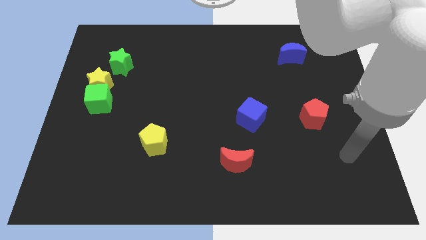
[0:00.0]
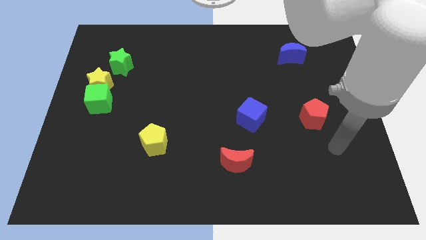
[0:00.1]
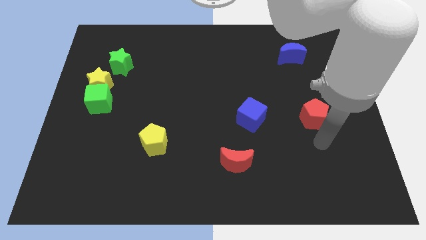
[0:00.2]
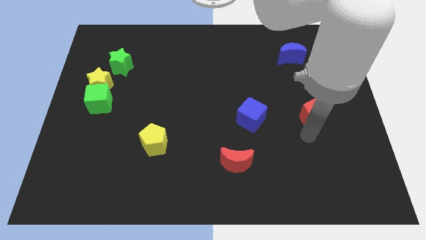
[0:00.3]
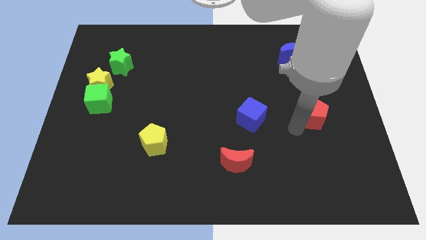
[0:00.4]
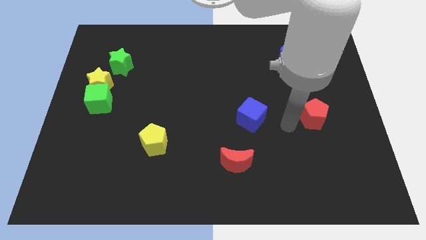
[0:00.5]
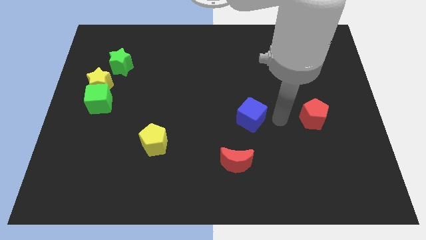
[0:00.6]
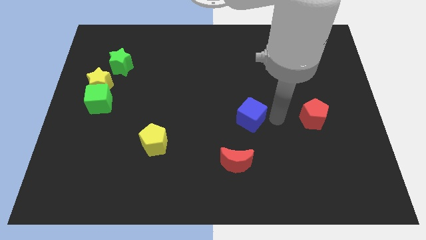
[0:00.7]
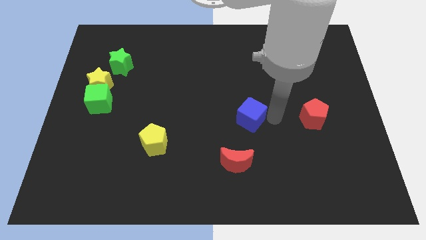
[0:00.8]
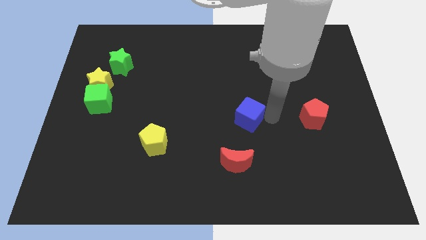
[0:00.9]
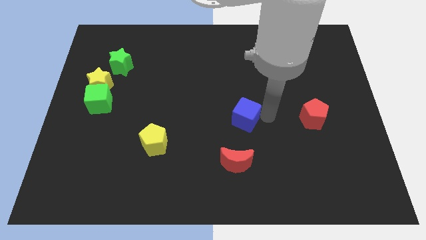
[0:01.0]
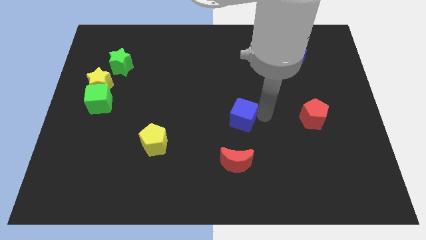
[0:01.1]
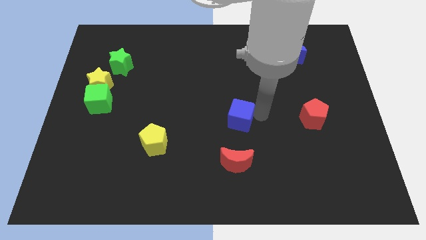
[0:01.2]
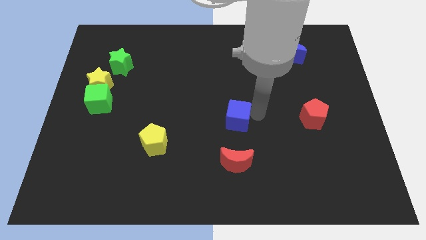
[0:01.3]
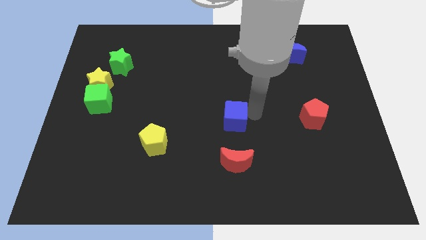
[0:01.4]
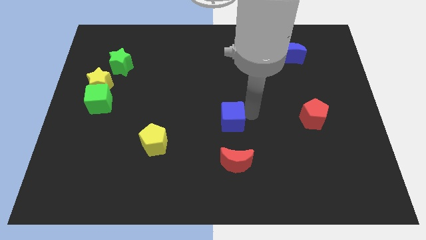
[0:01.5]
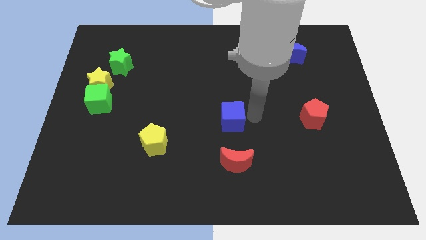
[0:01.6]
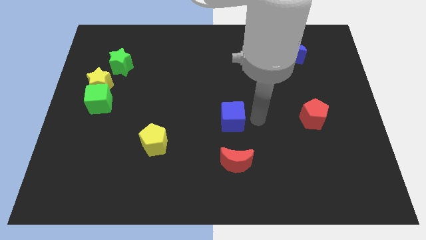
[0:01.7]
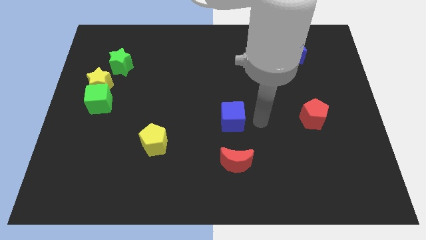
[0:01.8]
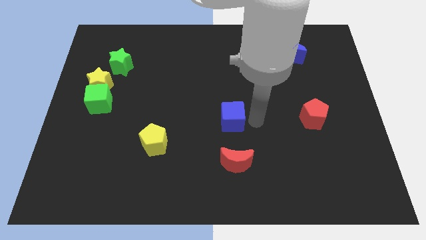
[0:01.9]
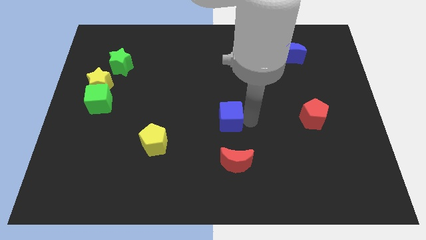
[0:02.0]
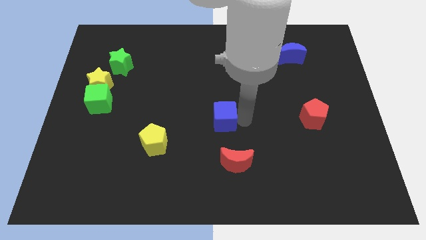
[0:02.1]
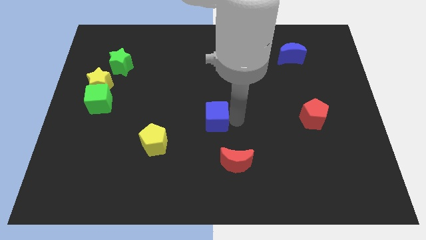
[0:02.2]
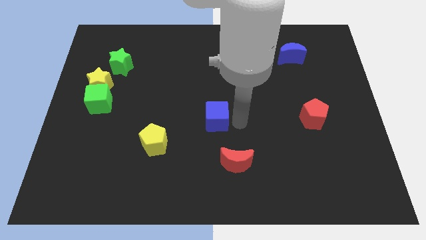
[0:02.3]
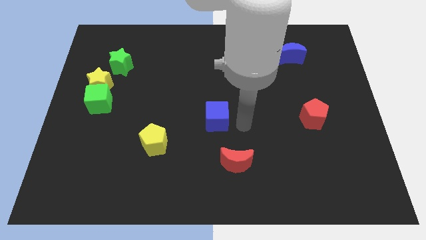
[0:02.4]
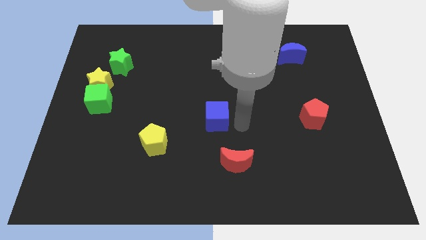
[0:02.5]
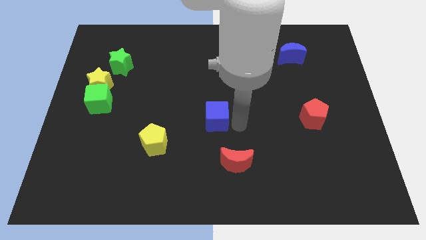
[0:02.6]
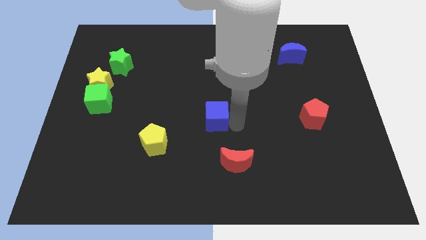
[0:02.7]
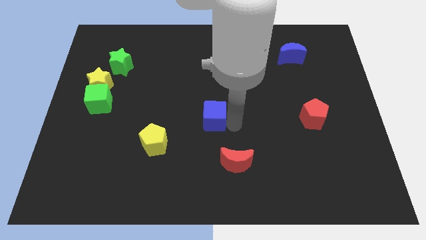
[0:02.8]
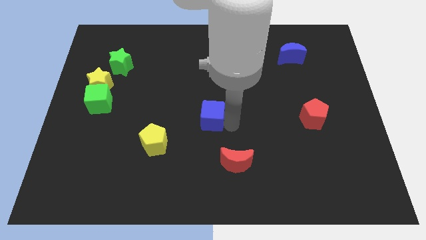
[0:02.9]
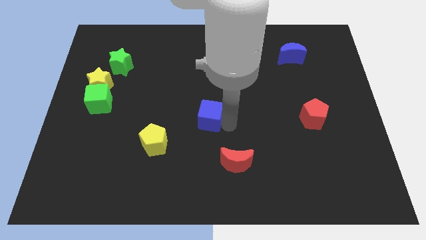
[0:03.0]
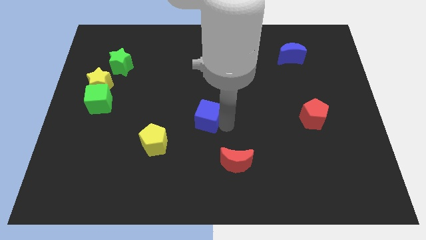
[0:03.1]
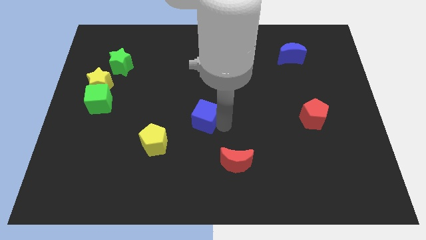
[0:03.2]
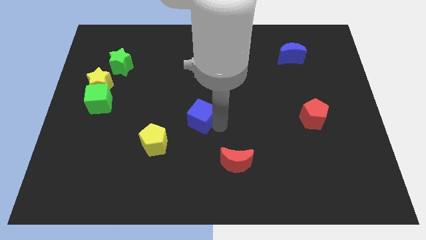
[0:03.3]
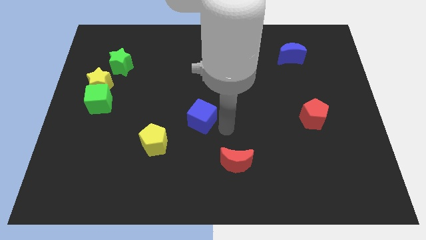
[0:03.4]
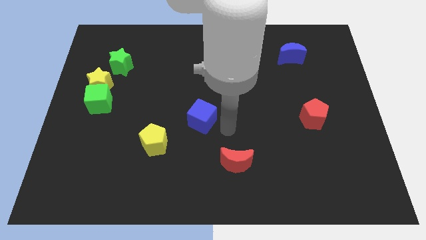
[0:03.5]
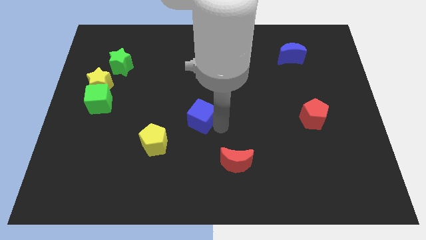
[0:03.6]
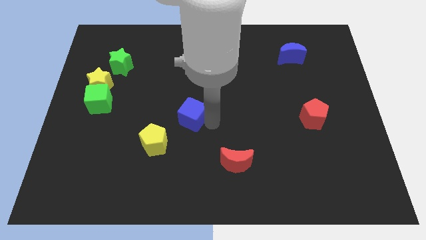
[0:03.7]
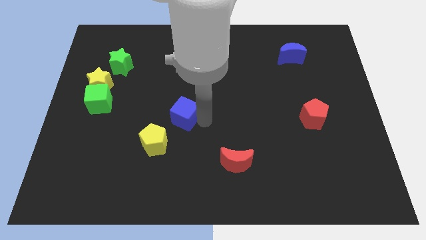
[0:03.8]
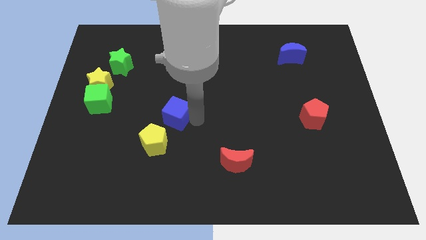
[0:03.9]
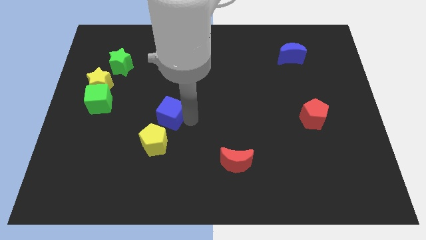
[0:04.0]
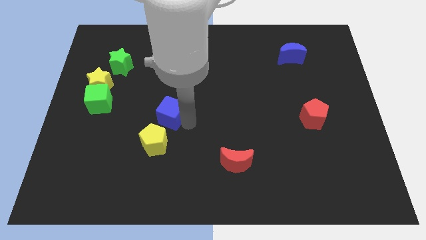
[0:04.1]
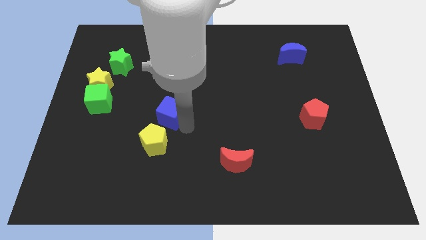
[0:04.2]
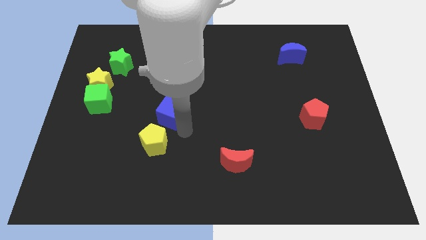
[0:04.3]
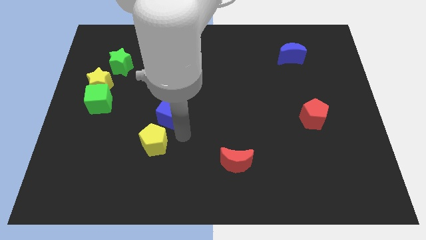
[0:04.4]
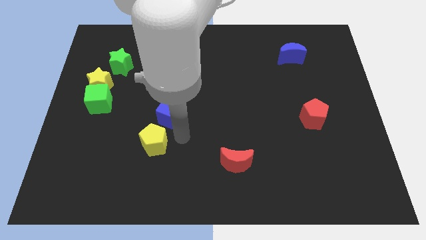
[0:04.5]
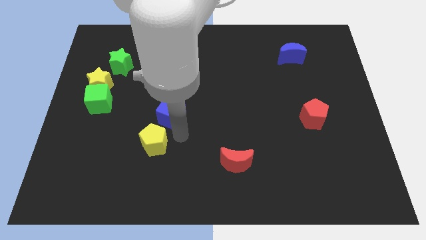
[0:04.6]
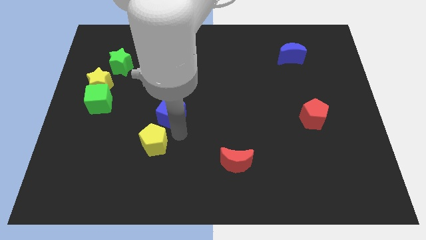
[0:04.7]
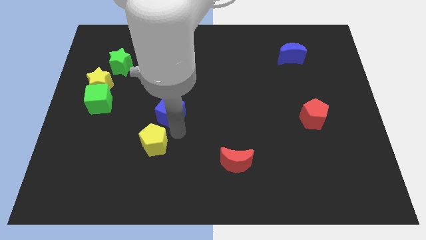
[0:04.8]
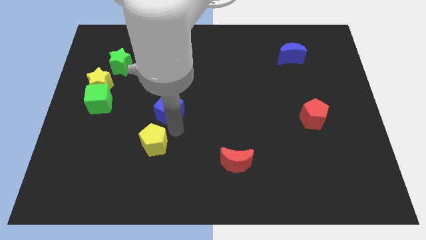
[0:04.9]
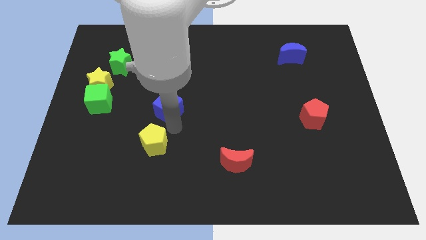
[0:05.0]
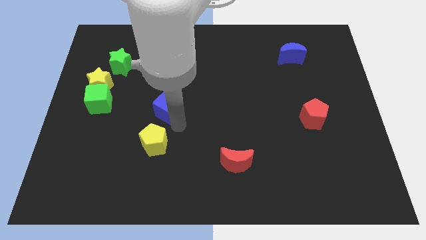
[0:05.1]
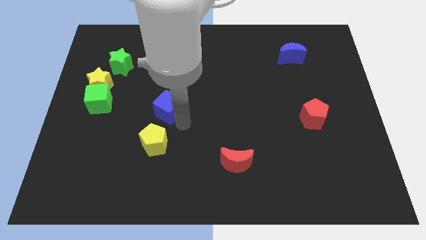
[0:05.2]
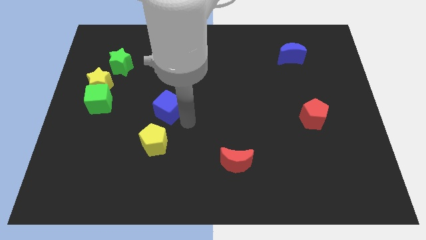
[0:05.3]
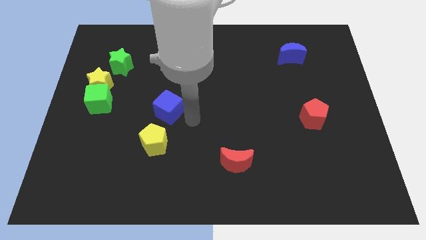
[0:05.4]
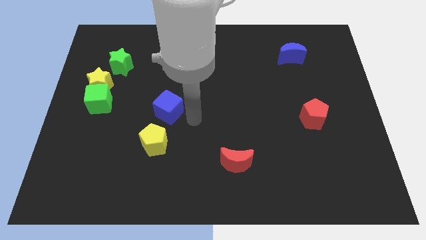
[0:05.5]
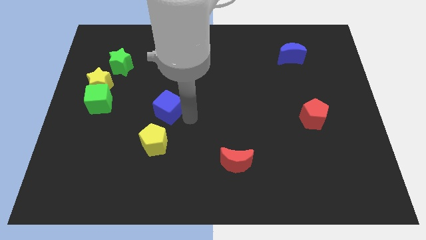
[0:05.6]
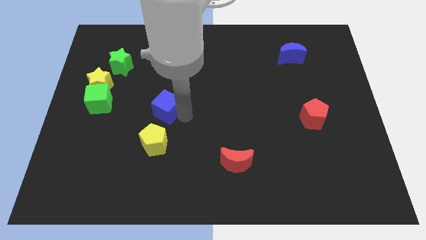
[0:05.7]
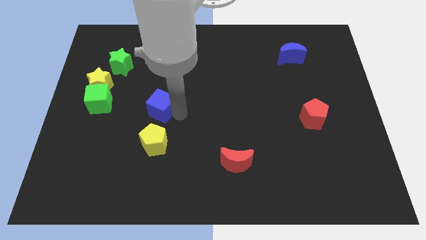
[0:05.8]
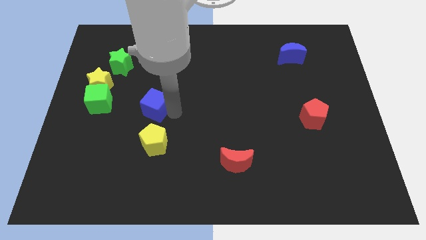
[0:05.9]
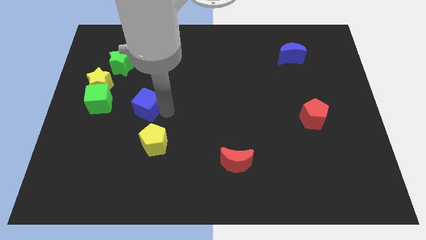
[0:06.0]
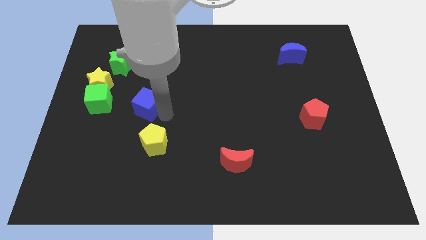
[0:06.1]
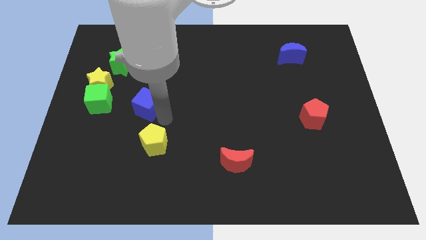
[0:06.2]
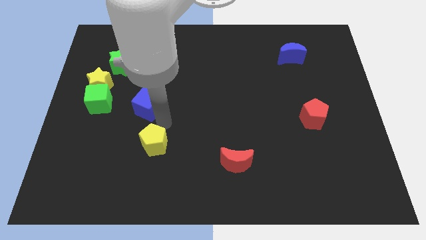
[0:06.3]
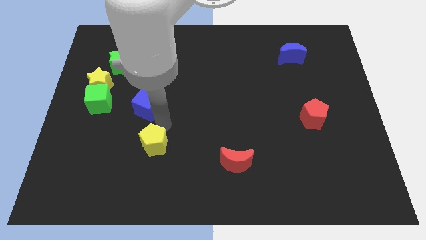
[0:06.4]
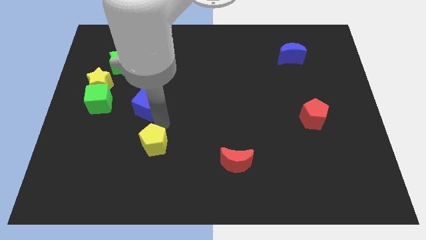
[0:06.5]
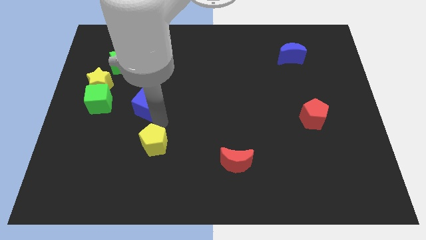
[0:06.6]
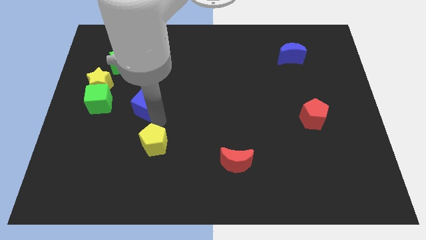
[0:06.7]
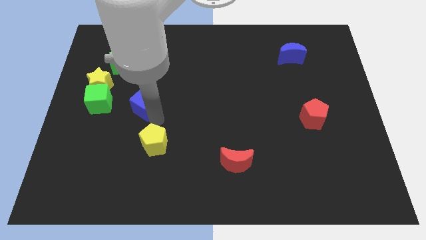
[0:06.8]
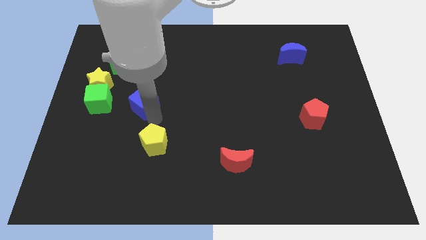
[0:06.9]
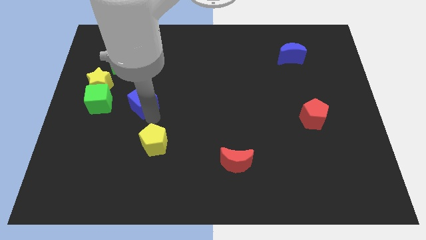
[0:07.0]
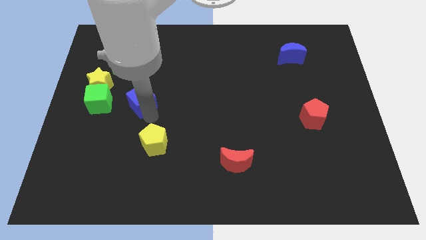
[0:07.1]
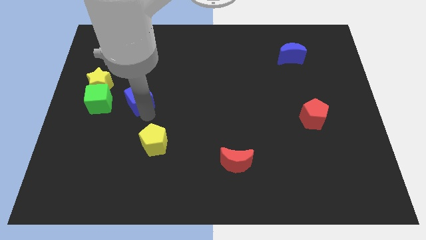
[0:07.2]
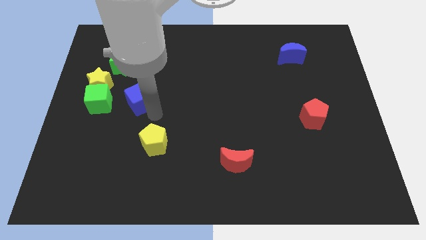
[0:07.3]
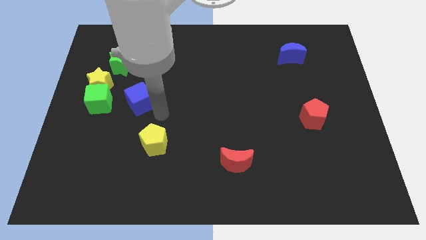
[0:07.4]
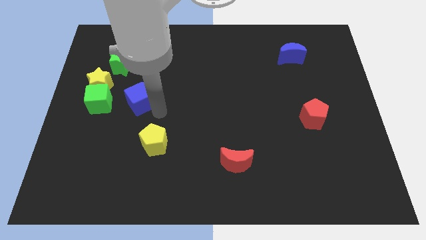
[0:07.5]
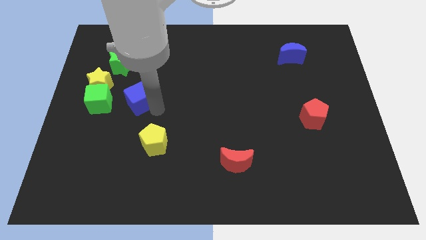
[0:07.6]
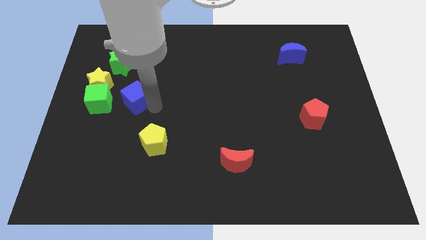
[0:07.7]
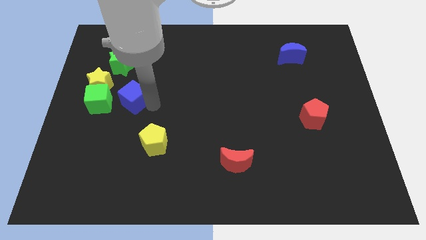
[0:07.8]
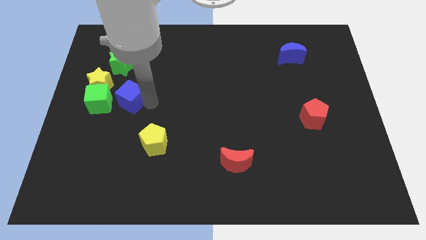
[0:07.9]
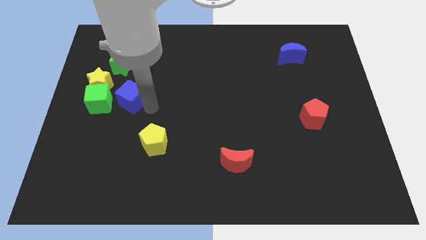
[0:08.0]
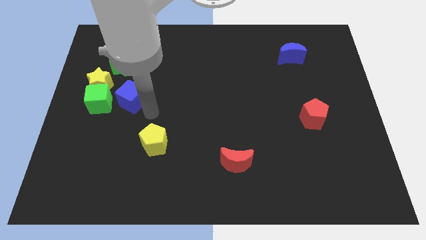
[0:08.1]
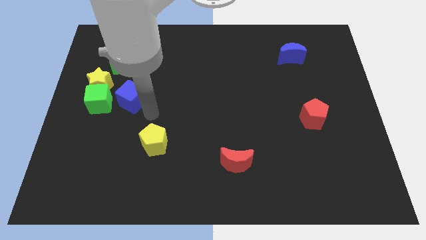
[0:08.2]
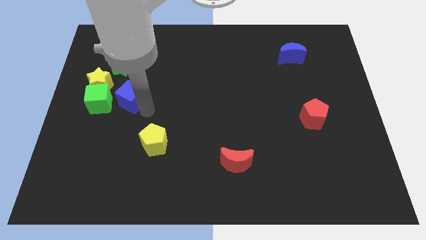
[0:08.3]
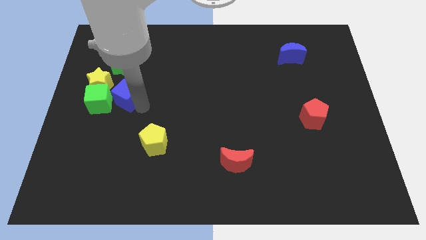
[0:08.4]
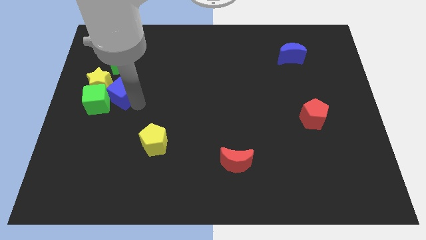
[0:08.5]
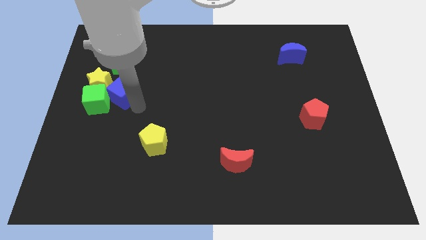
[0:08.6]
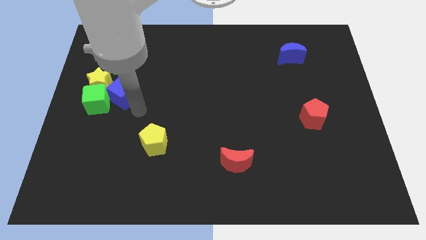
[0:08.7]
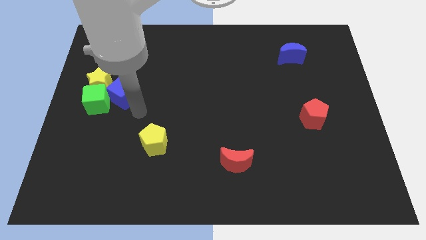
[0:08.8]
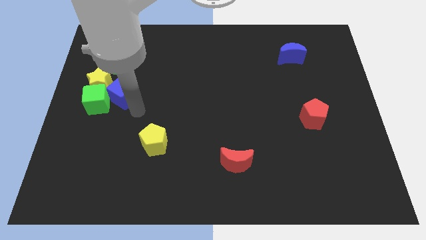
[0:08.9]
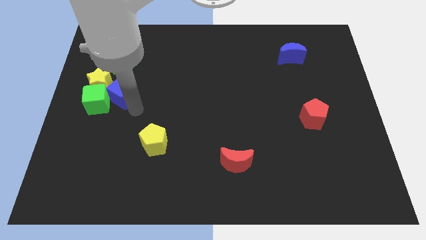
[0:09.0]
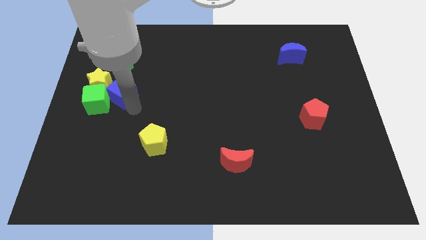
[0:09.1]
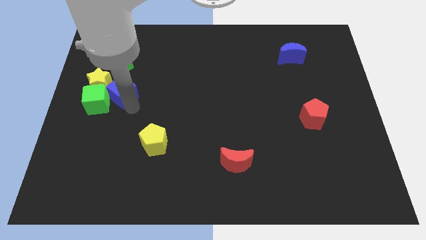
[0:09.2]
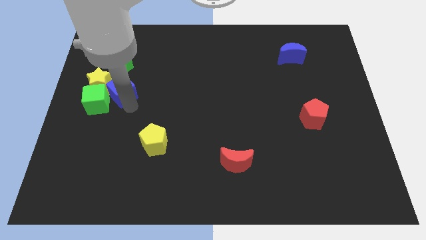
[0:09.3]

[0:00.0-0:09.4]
put the blue cube towards the yellow star
